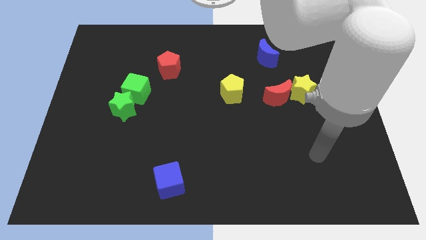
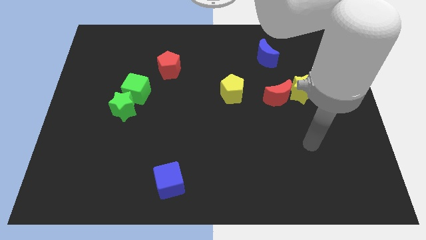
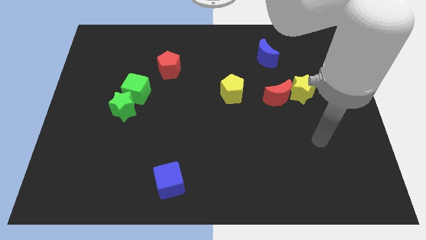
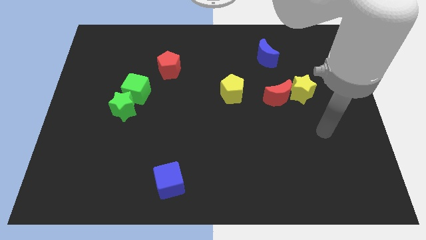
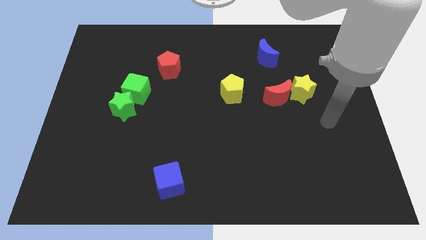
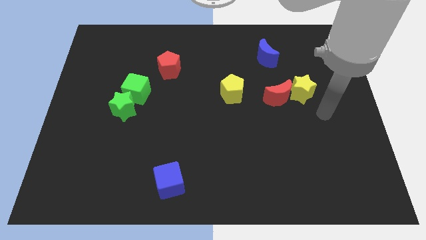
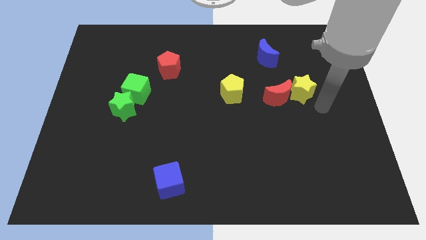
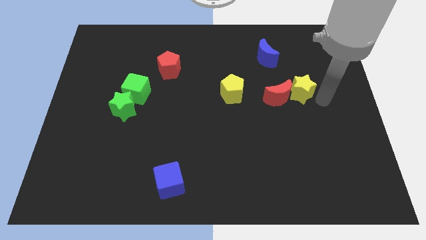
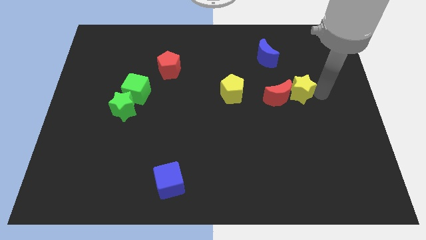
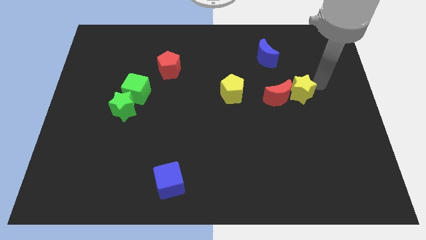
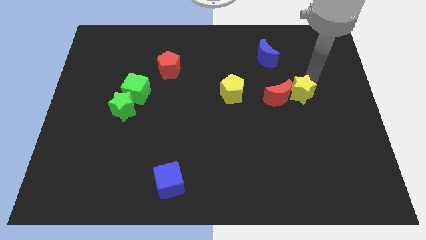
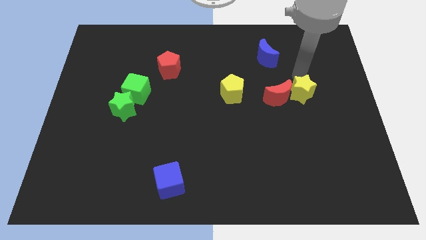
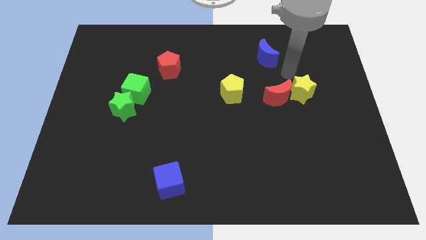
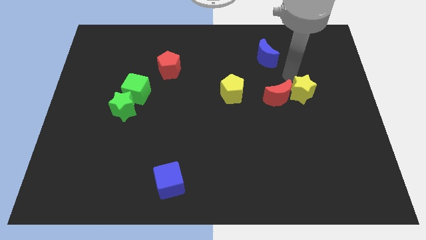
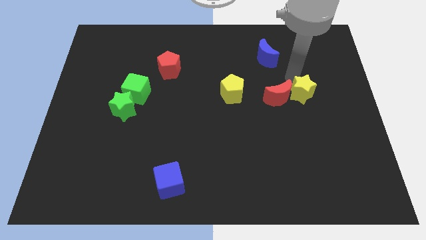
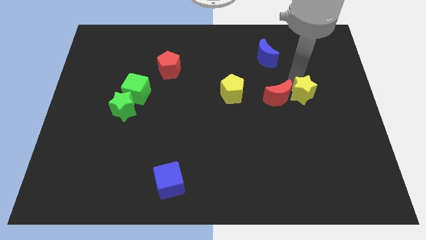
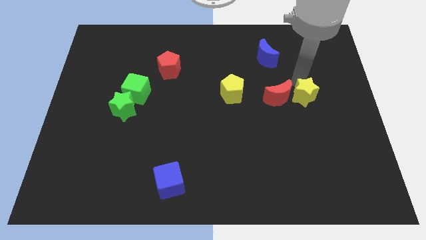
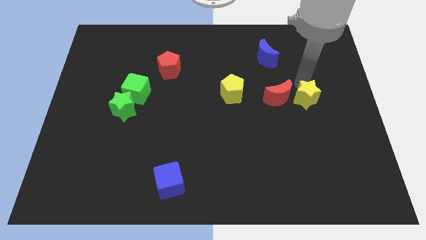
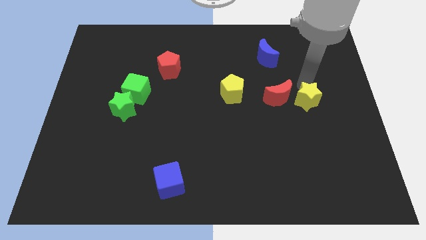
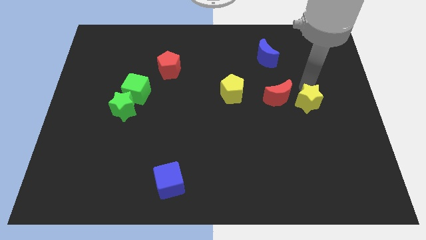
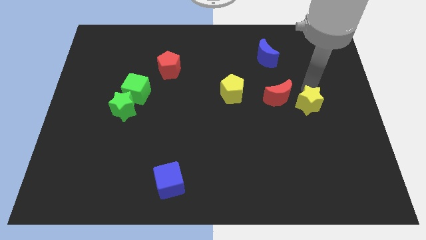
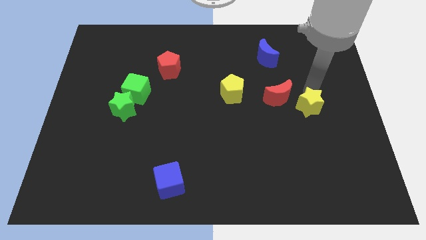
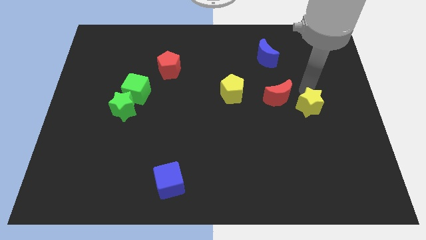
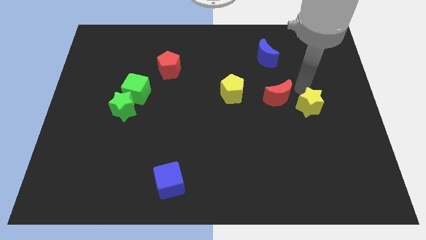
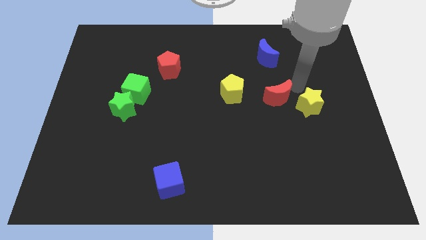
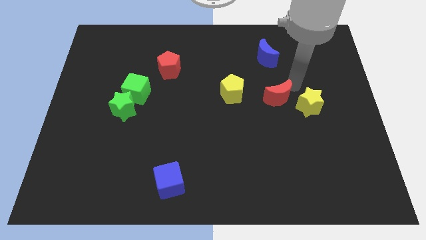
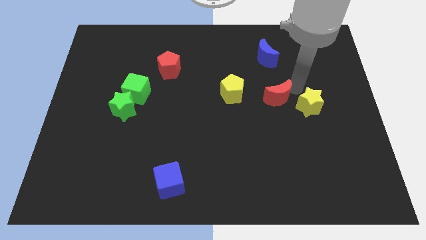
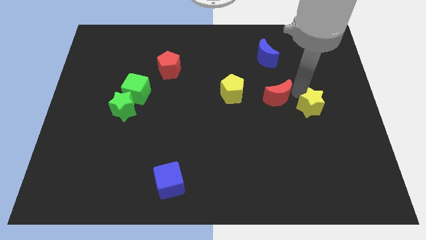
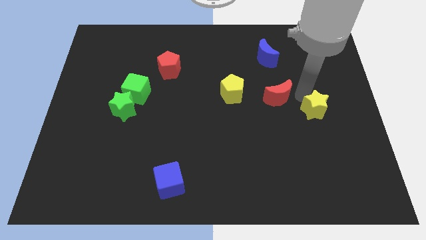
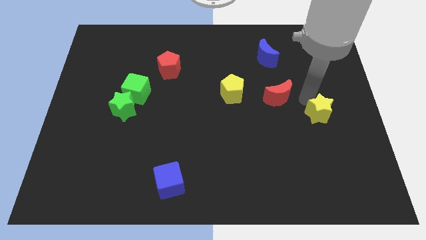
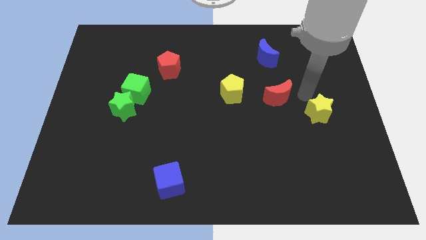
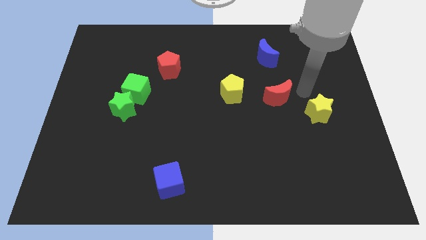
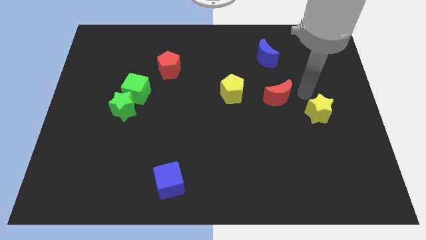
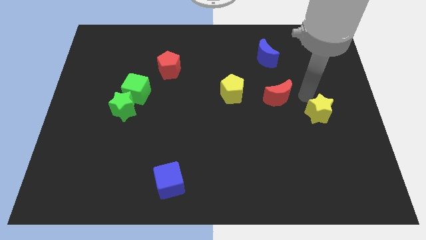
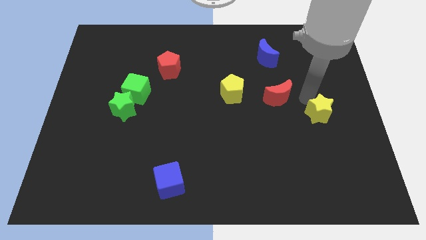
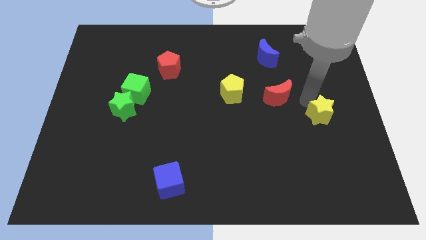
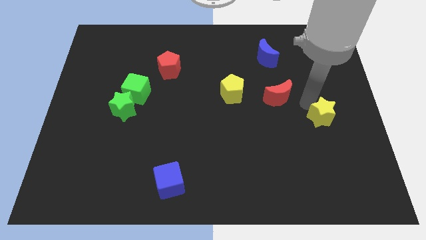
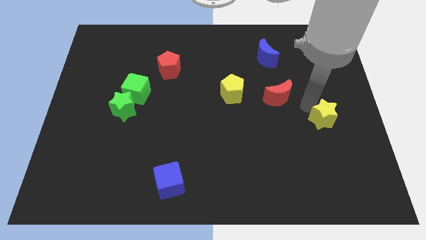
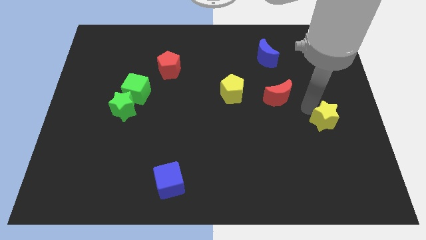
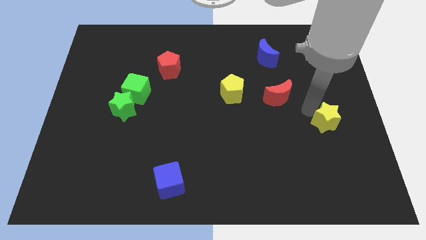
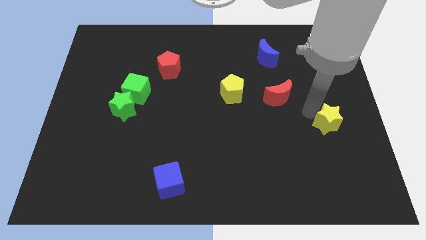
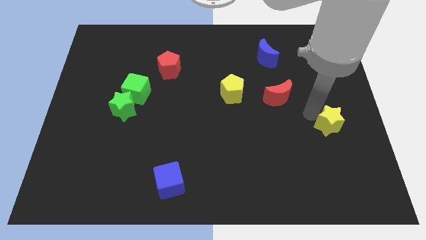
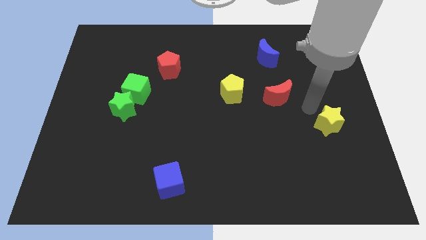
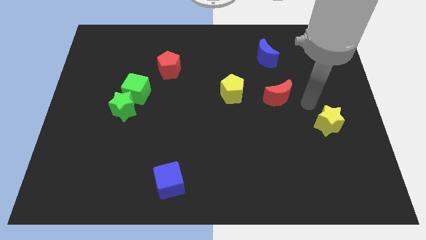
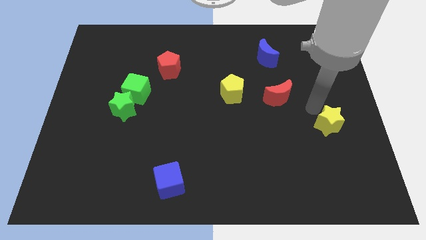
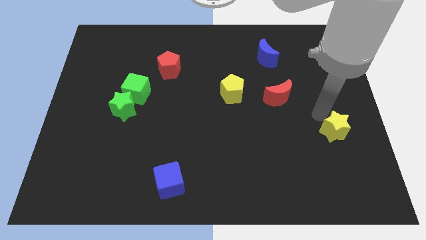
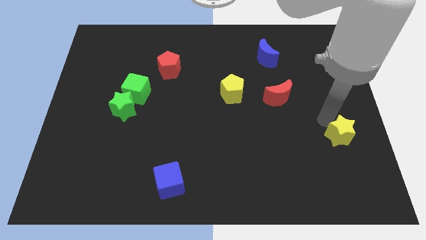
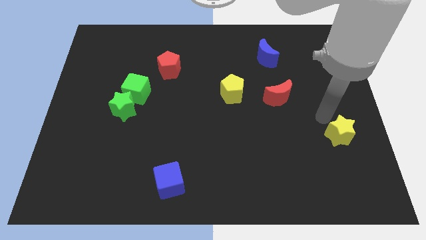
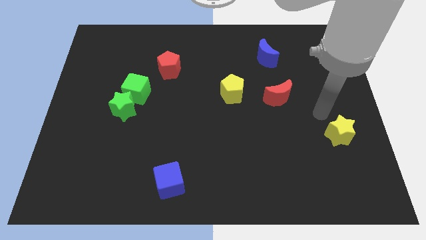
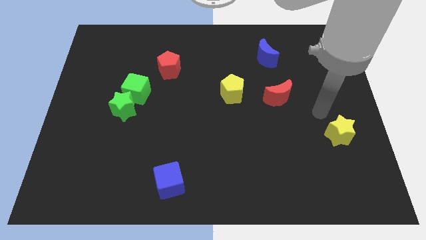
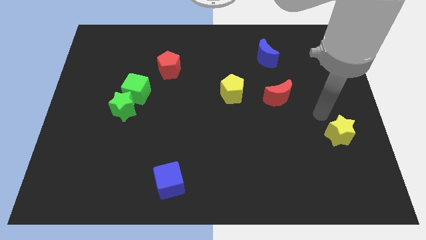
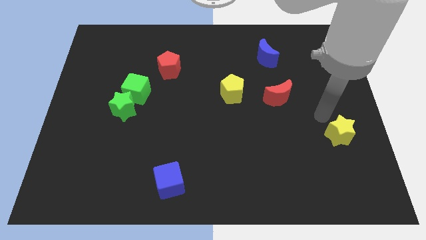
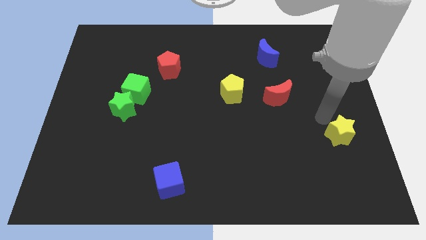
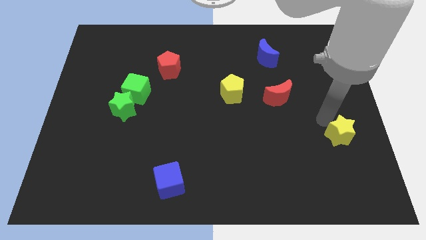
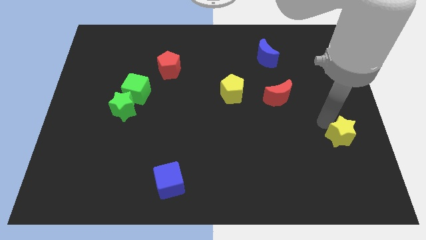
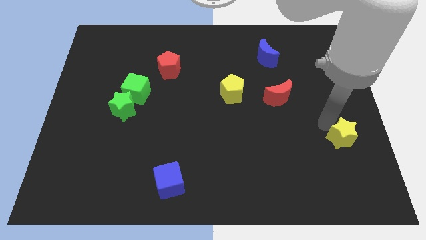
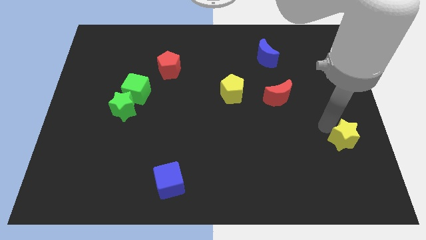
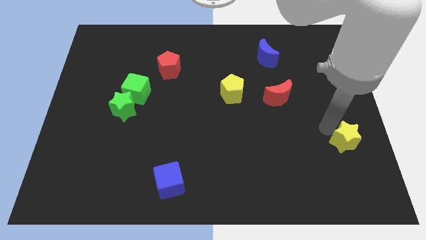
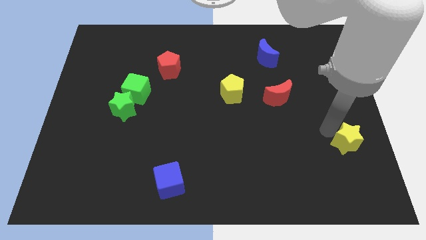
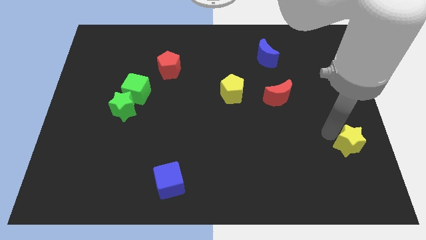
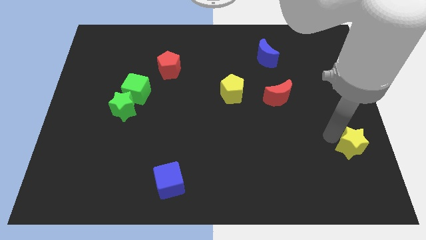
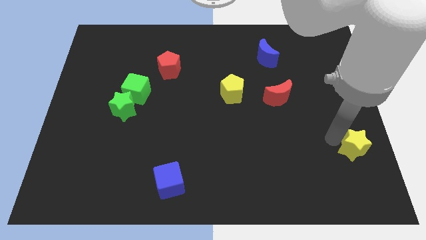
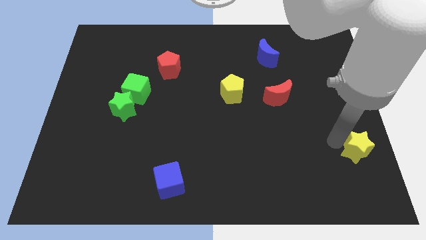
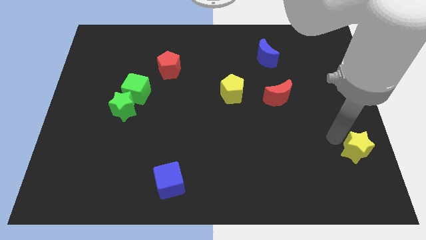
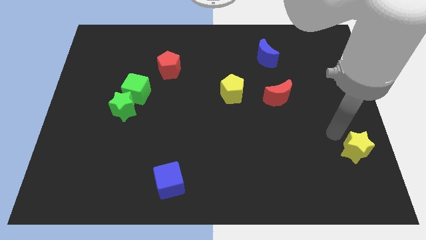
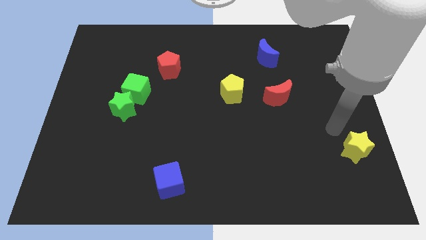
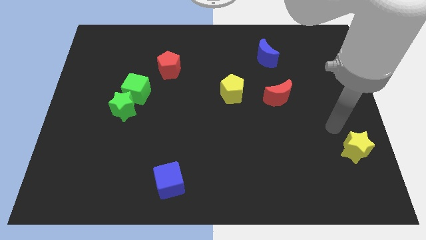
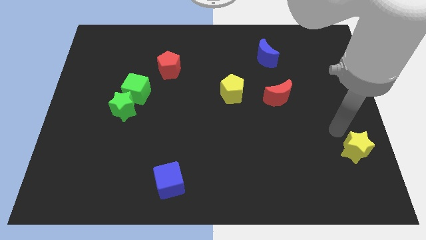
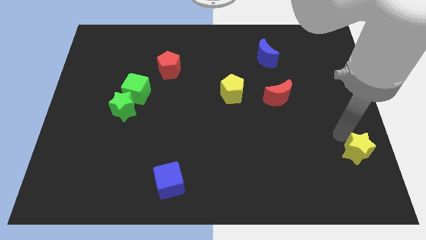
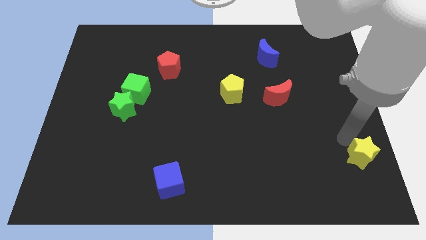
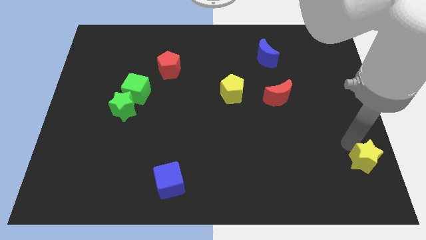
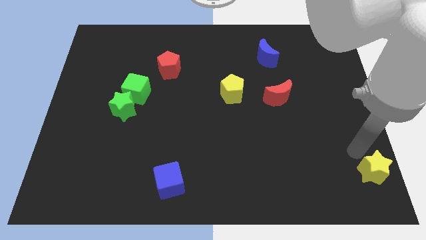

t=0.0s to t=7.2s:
slide the yellow star to the bottom right
